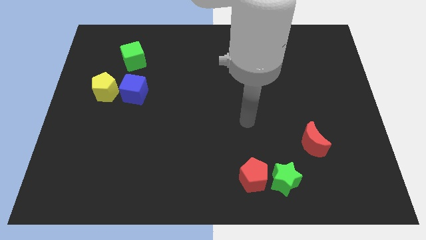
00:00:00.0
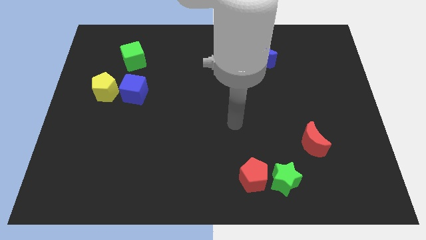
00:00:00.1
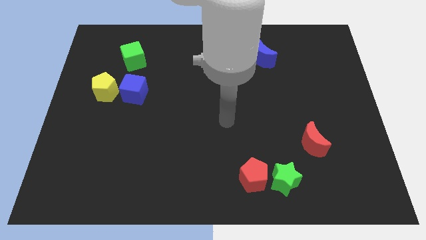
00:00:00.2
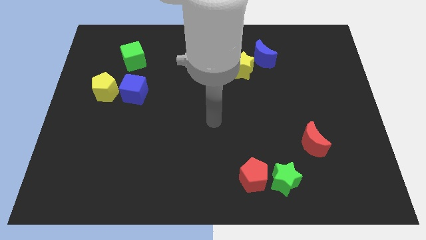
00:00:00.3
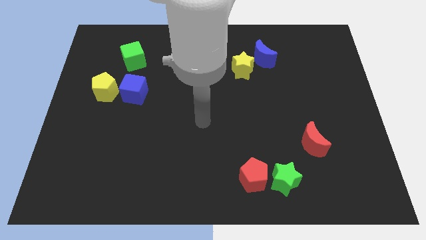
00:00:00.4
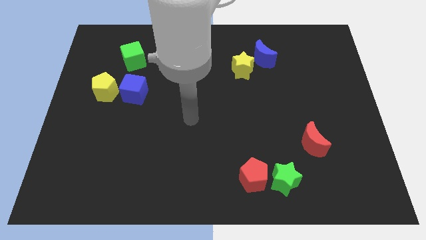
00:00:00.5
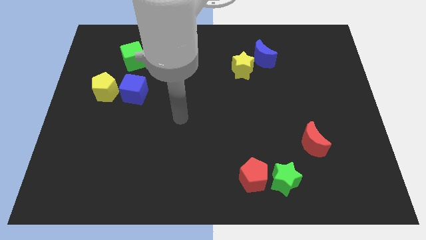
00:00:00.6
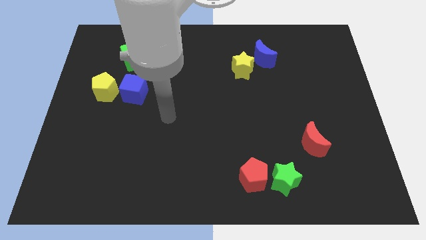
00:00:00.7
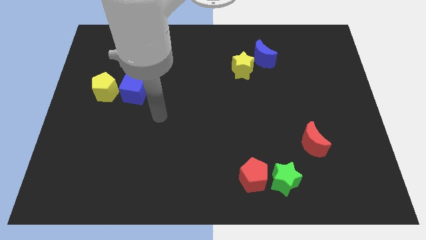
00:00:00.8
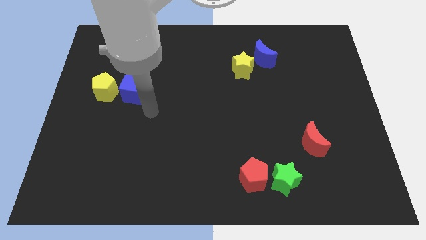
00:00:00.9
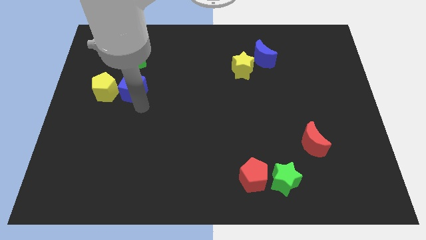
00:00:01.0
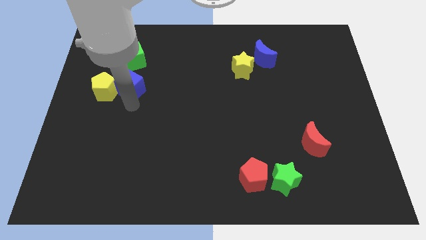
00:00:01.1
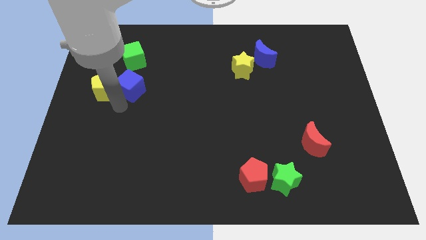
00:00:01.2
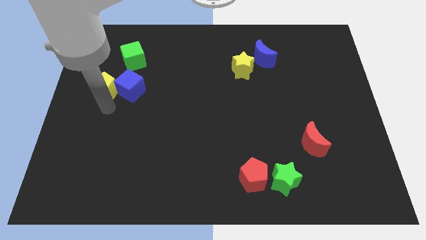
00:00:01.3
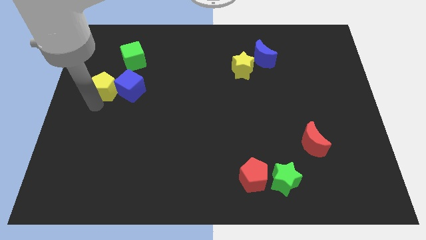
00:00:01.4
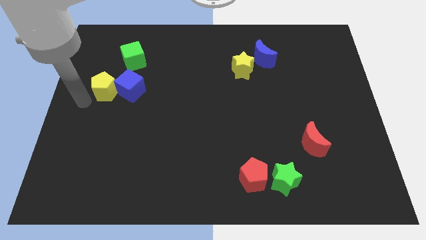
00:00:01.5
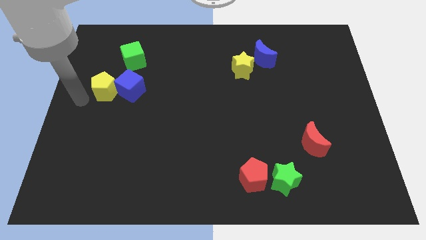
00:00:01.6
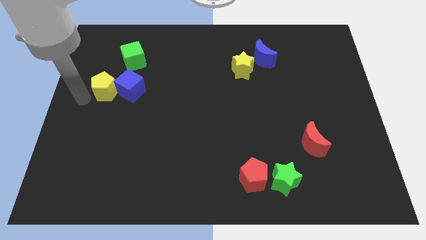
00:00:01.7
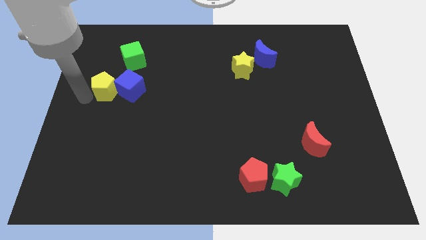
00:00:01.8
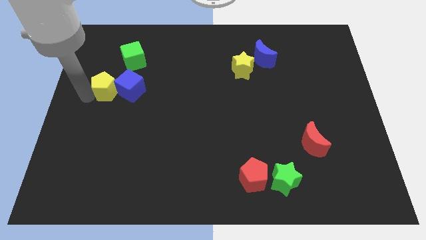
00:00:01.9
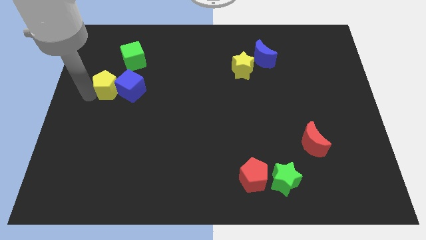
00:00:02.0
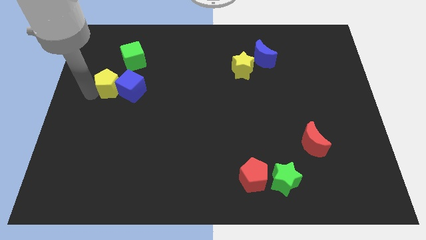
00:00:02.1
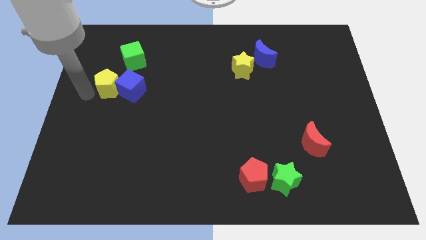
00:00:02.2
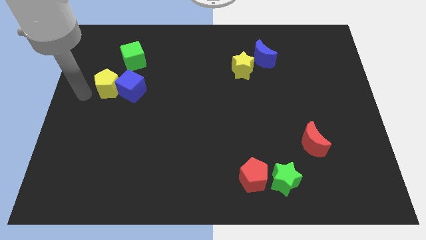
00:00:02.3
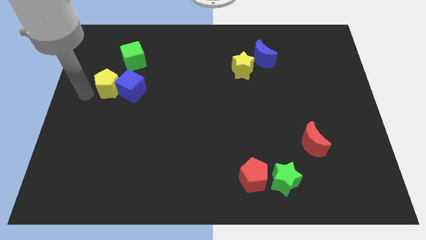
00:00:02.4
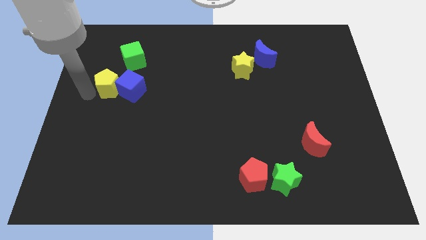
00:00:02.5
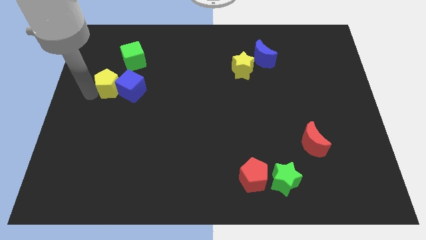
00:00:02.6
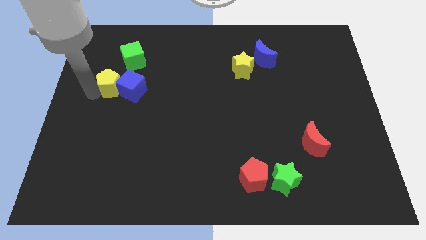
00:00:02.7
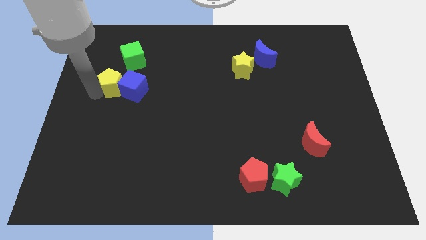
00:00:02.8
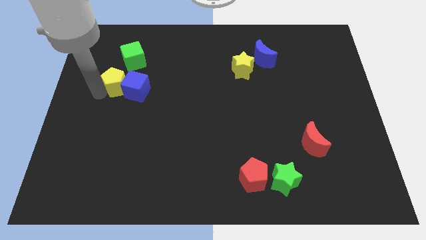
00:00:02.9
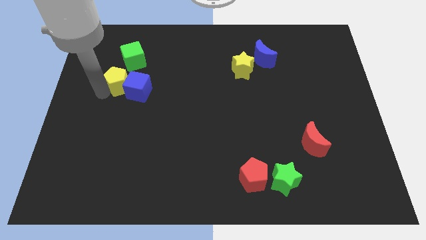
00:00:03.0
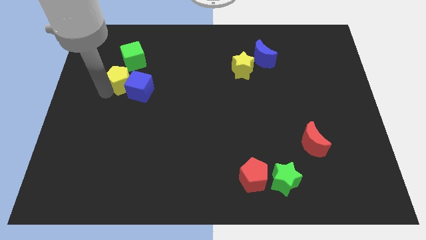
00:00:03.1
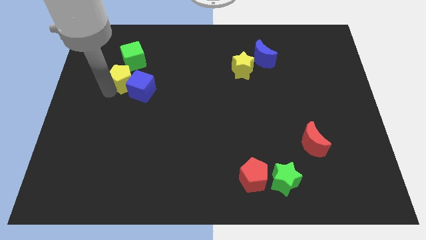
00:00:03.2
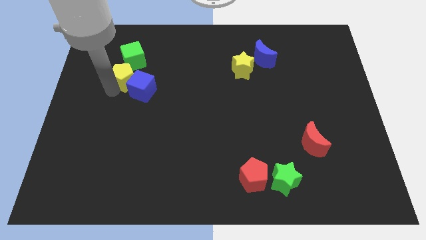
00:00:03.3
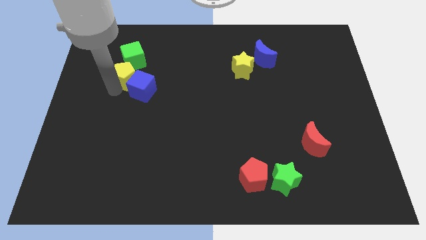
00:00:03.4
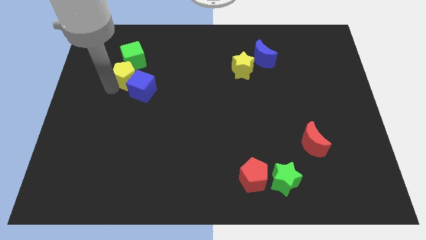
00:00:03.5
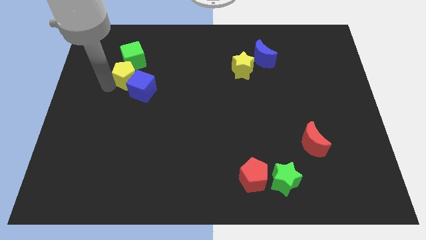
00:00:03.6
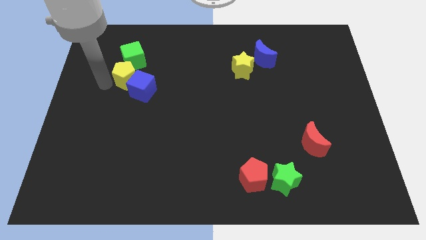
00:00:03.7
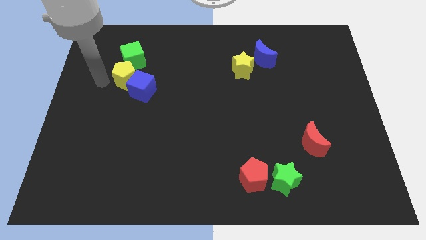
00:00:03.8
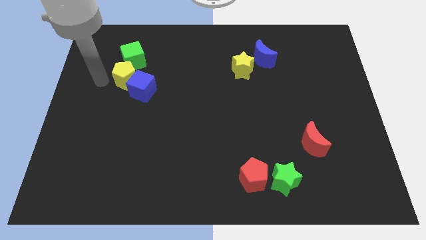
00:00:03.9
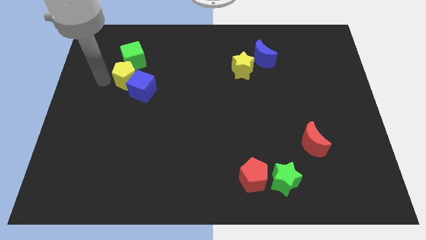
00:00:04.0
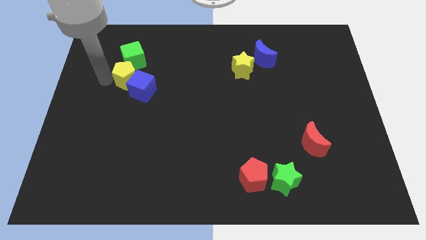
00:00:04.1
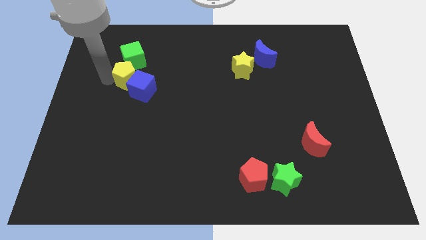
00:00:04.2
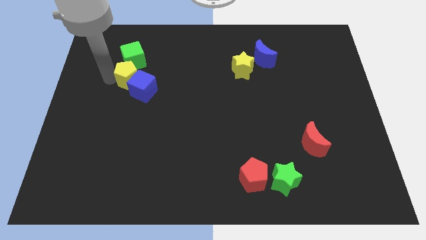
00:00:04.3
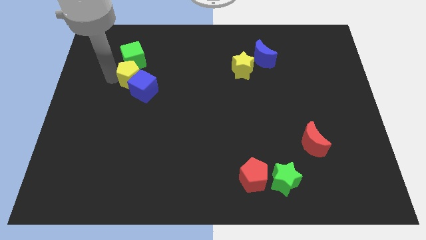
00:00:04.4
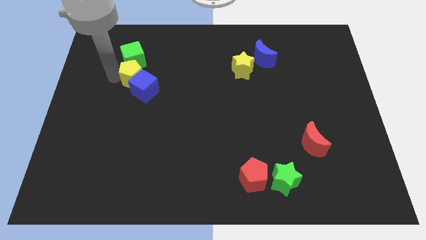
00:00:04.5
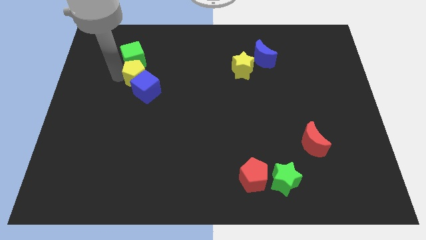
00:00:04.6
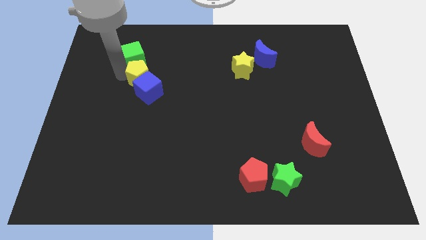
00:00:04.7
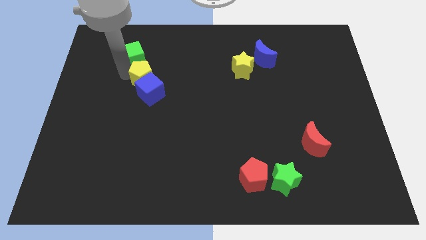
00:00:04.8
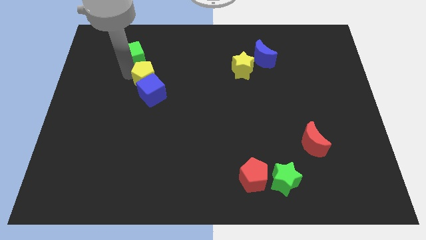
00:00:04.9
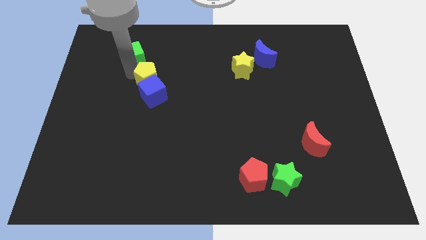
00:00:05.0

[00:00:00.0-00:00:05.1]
push the yellow pentagon diagonally up and to the right of the blue cube

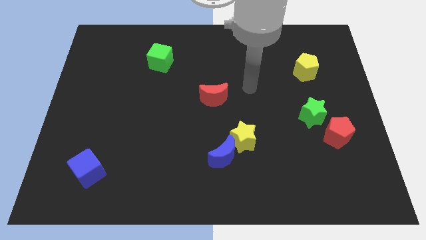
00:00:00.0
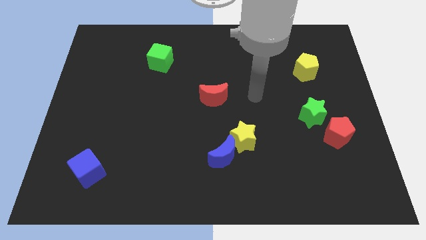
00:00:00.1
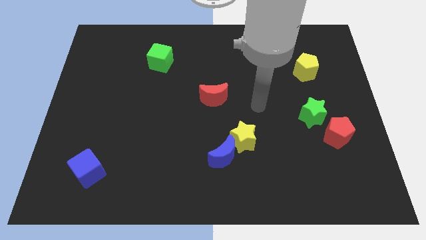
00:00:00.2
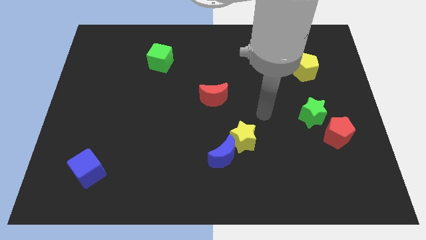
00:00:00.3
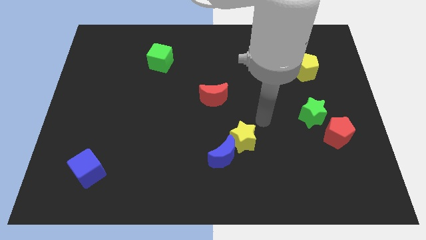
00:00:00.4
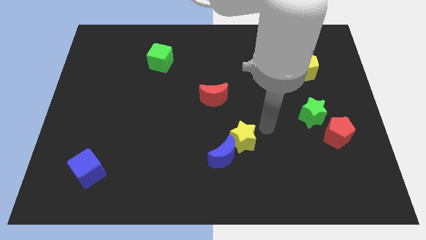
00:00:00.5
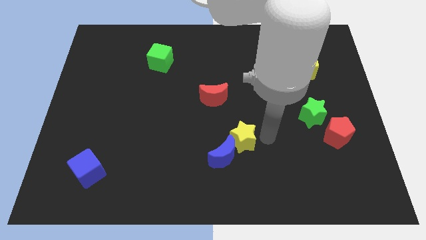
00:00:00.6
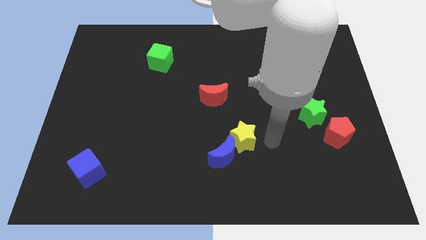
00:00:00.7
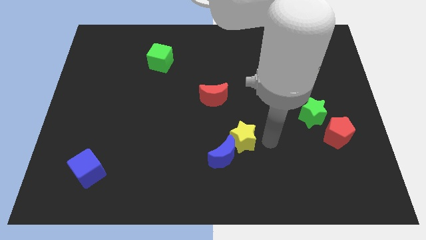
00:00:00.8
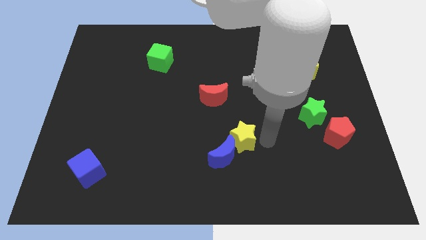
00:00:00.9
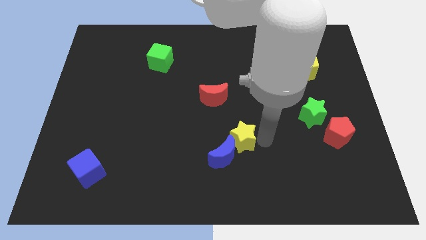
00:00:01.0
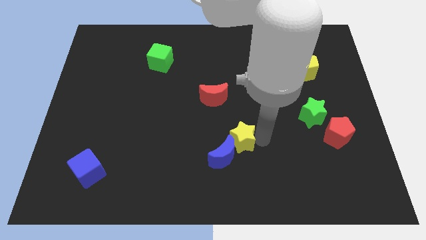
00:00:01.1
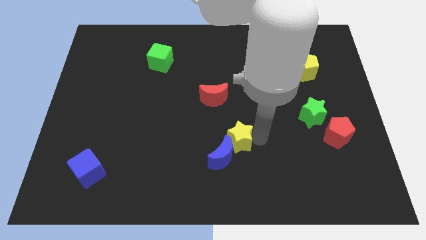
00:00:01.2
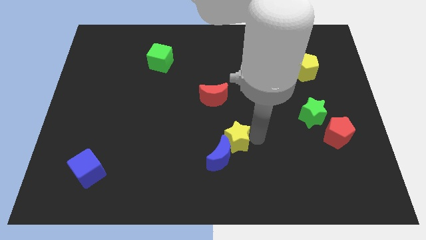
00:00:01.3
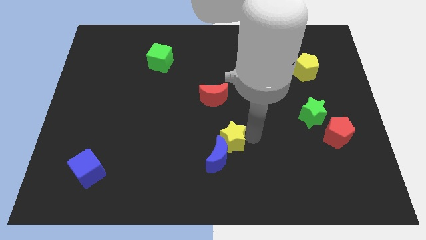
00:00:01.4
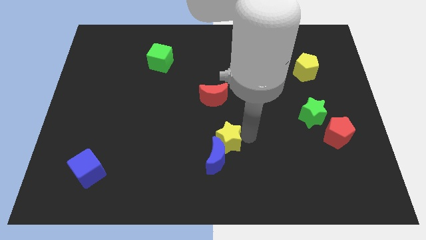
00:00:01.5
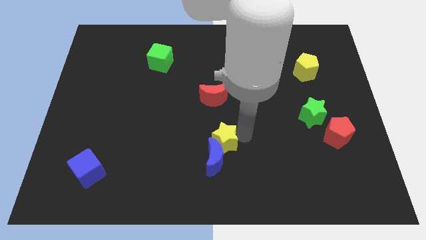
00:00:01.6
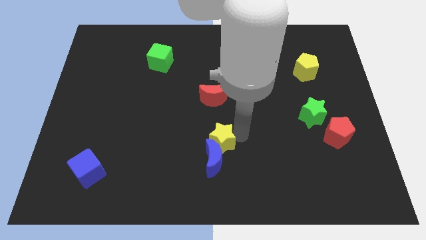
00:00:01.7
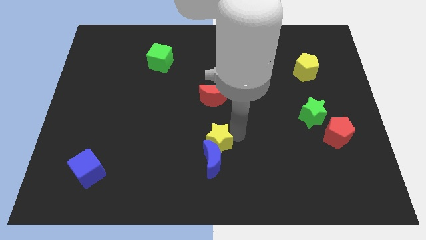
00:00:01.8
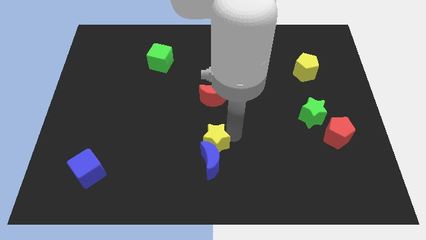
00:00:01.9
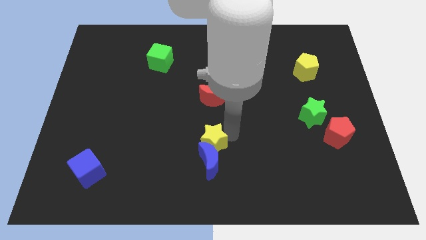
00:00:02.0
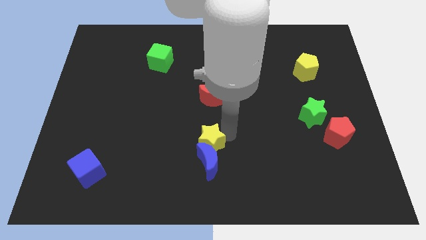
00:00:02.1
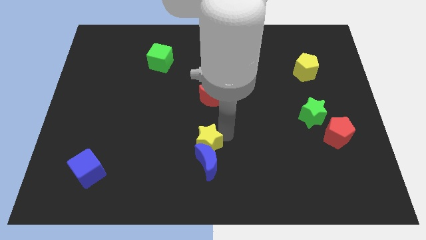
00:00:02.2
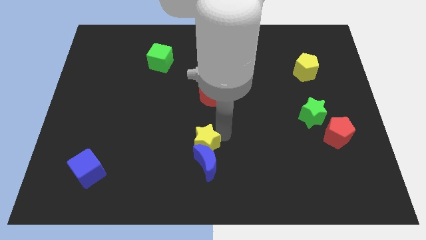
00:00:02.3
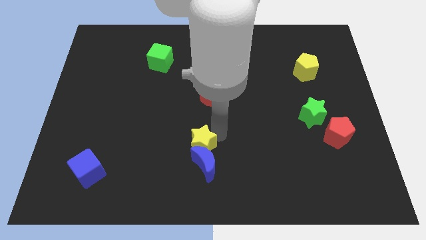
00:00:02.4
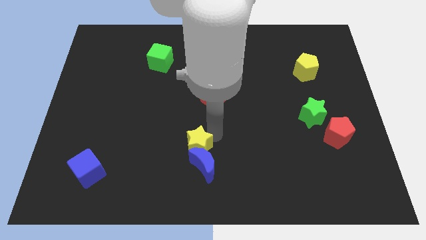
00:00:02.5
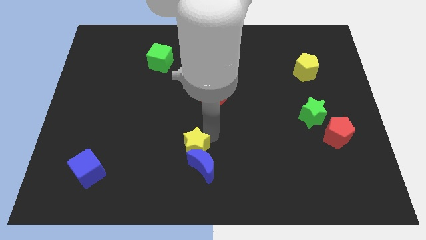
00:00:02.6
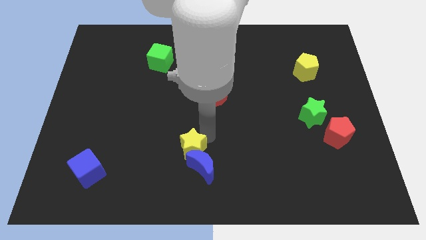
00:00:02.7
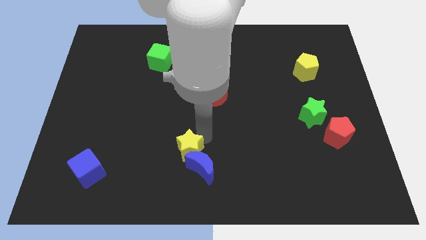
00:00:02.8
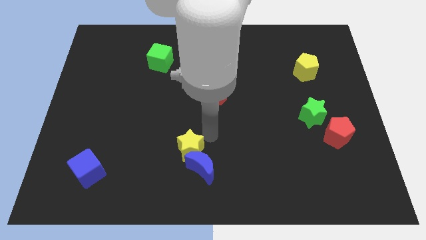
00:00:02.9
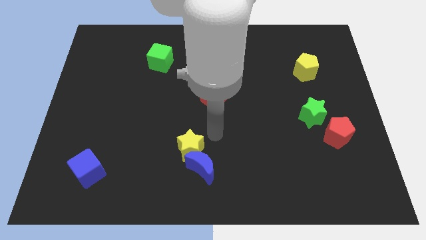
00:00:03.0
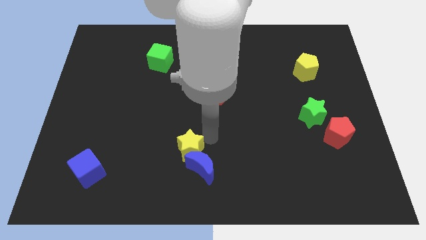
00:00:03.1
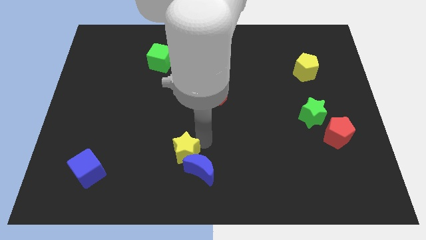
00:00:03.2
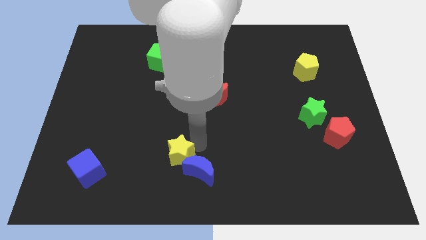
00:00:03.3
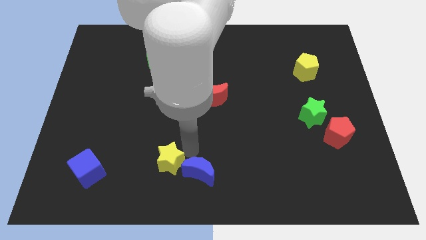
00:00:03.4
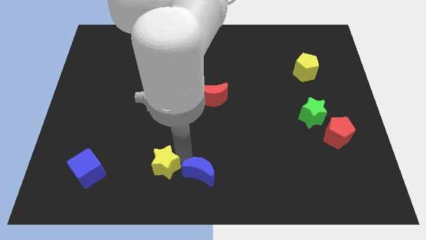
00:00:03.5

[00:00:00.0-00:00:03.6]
slide the yellow star to the right side of the blue cube
